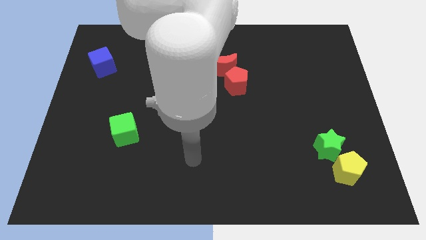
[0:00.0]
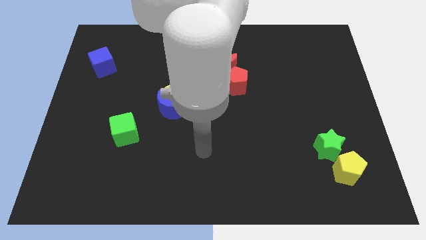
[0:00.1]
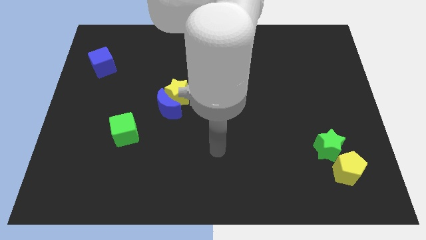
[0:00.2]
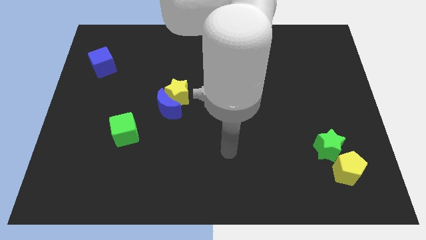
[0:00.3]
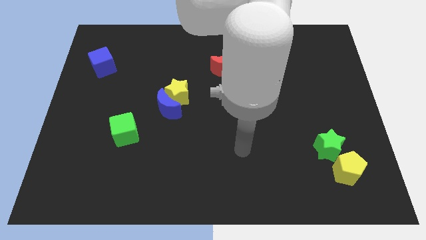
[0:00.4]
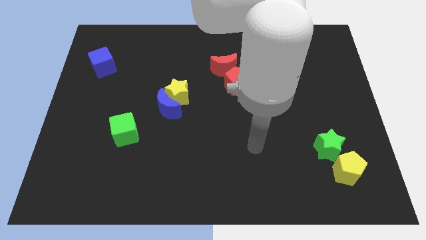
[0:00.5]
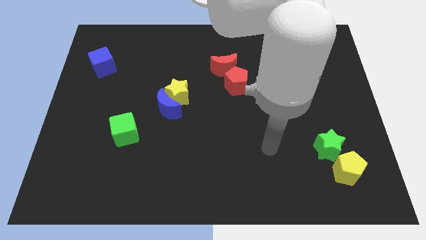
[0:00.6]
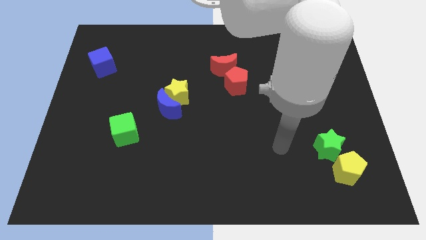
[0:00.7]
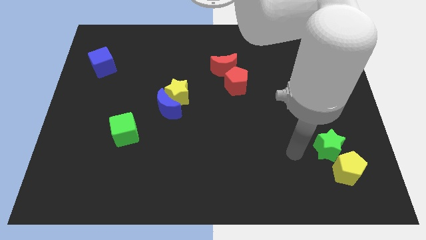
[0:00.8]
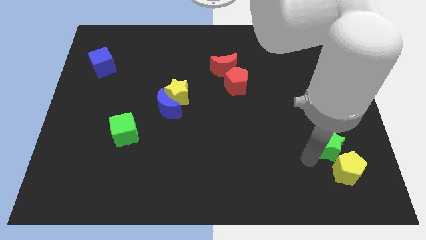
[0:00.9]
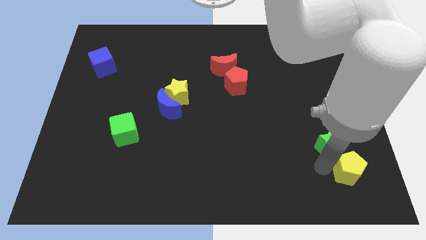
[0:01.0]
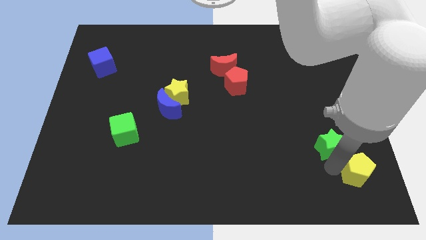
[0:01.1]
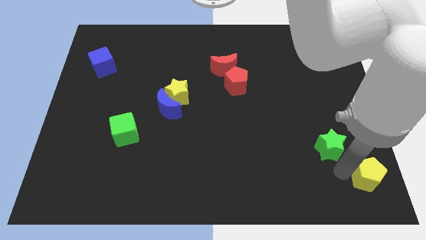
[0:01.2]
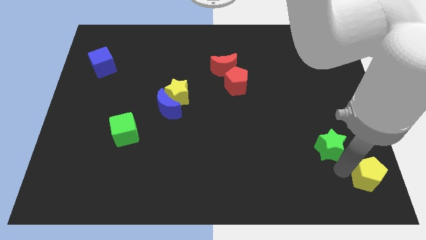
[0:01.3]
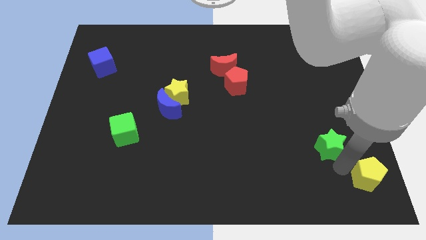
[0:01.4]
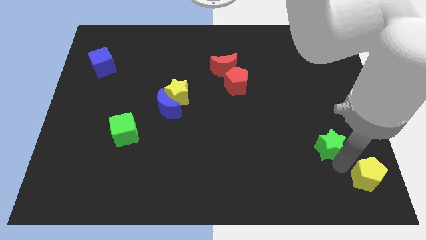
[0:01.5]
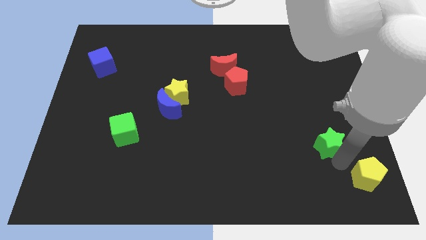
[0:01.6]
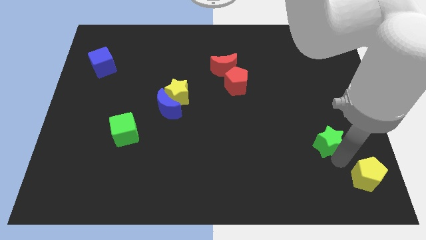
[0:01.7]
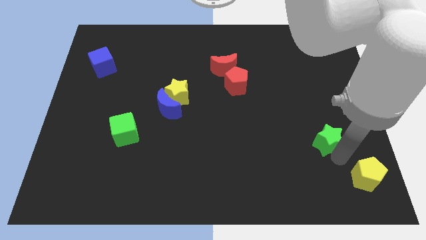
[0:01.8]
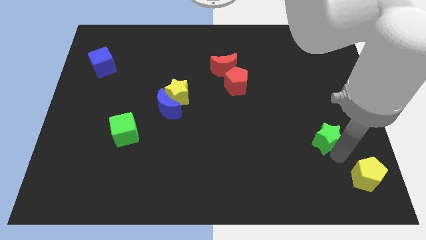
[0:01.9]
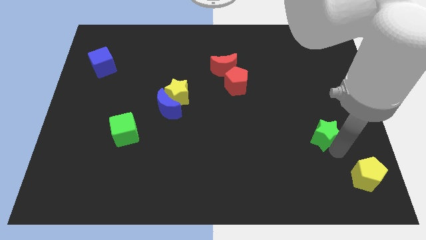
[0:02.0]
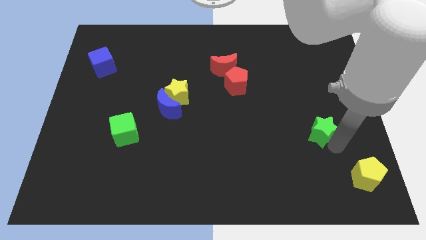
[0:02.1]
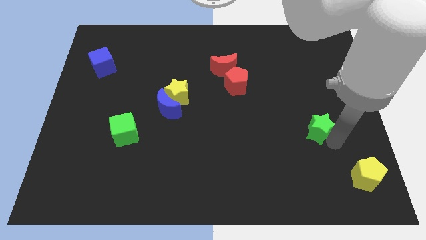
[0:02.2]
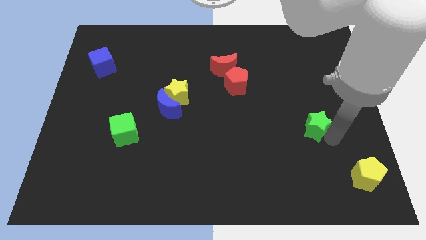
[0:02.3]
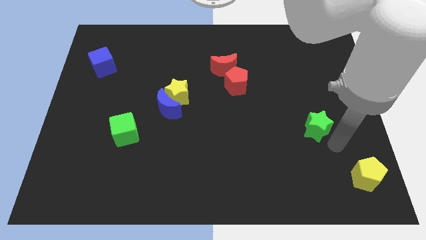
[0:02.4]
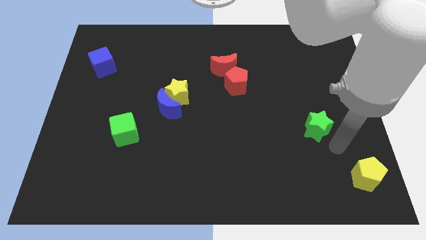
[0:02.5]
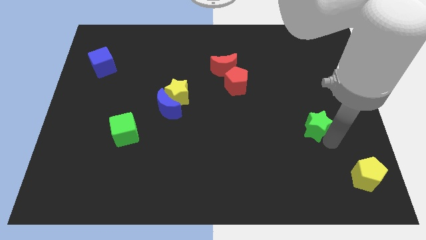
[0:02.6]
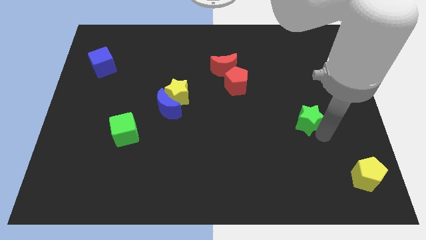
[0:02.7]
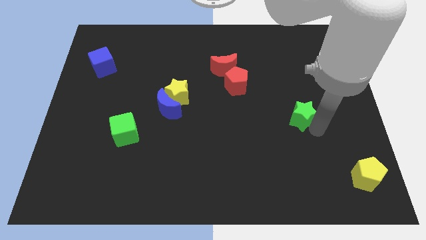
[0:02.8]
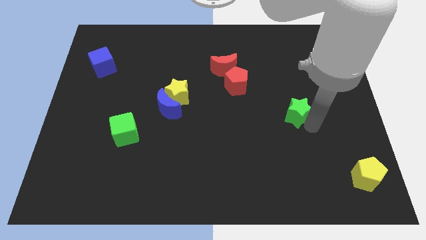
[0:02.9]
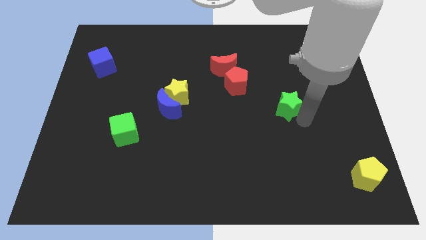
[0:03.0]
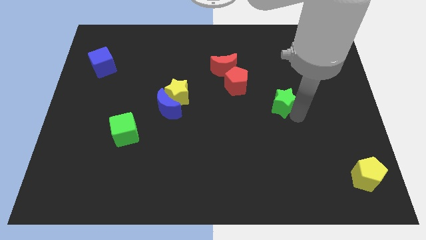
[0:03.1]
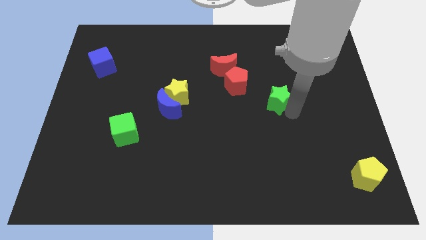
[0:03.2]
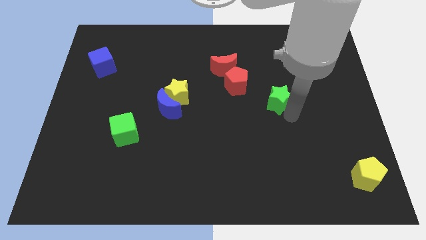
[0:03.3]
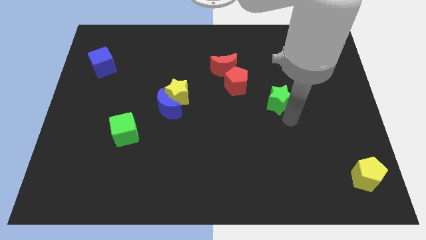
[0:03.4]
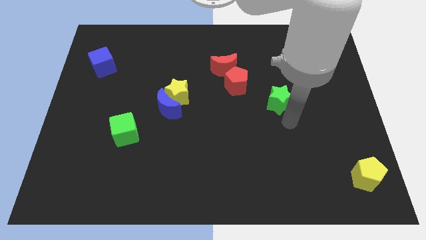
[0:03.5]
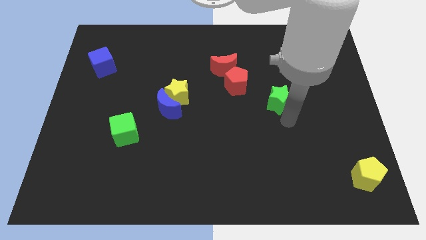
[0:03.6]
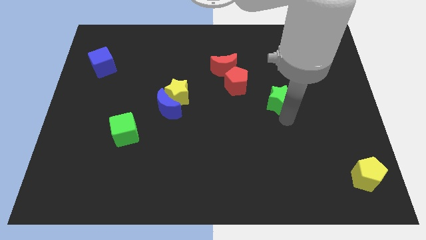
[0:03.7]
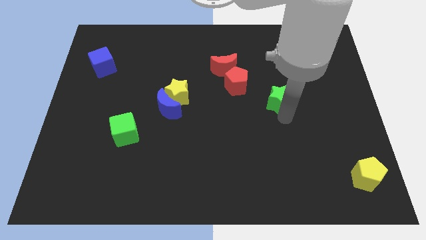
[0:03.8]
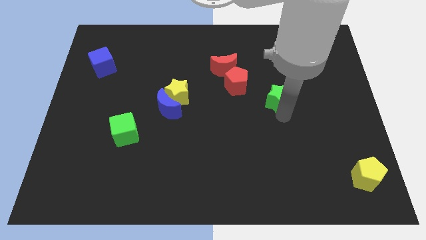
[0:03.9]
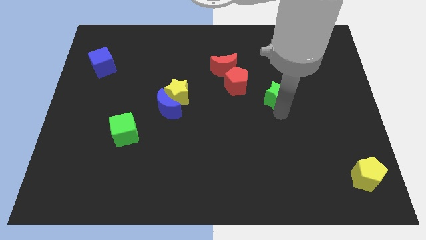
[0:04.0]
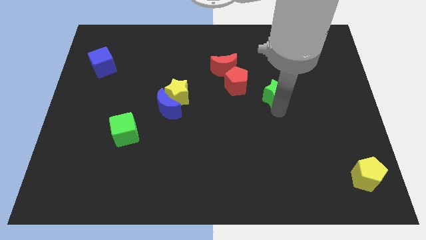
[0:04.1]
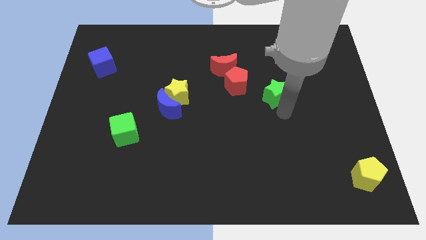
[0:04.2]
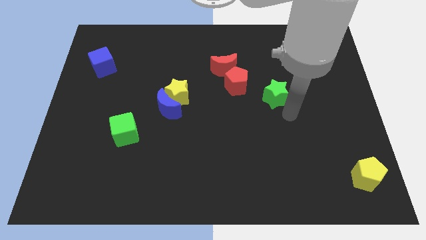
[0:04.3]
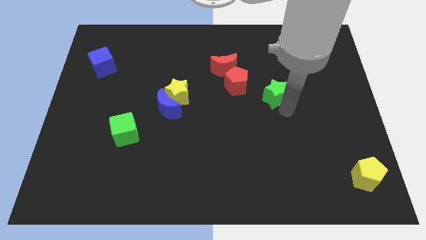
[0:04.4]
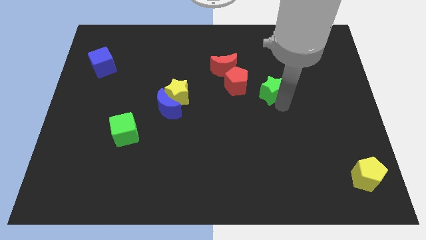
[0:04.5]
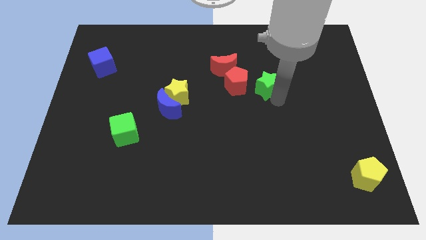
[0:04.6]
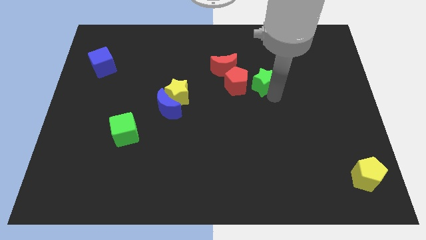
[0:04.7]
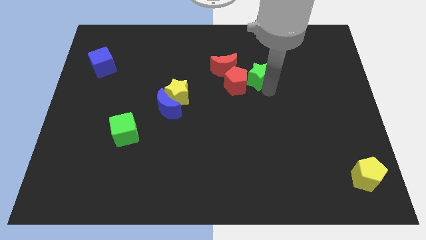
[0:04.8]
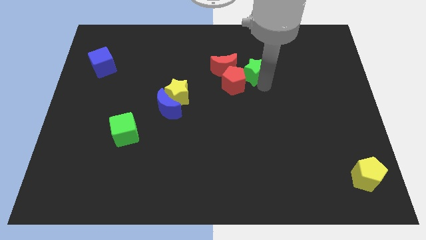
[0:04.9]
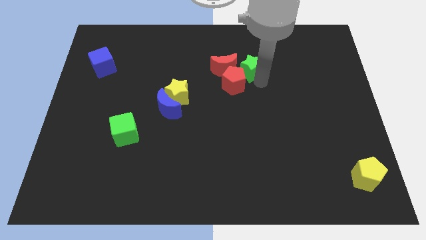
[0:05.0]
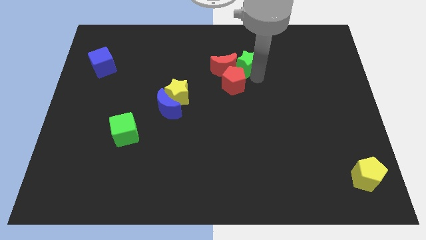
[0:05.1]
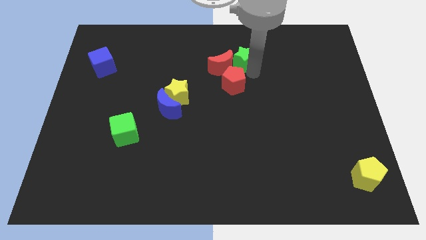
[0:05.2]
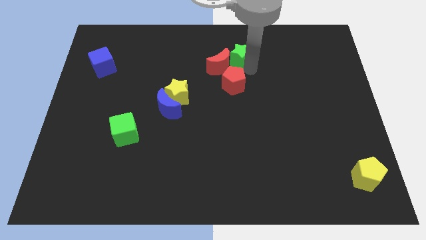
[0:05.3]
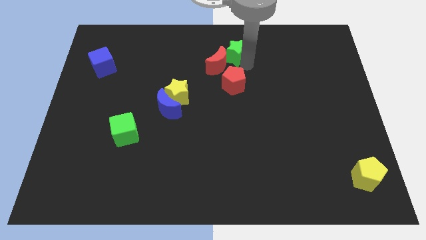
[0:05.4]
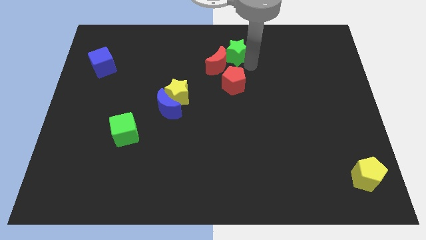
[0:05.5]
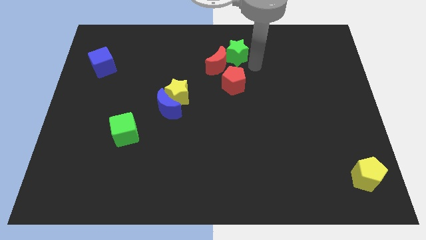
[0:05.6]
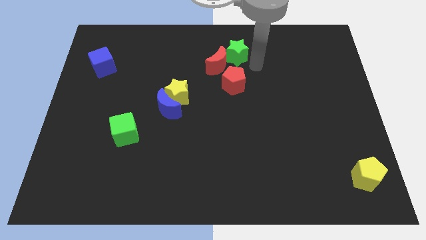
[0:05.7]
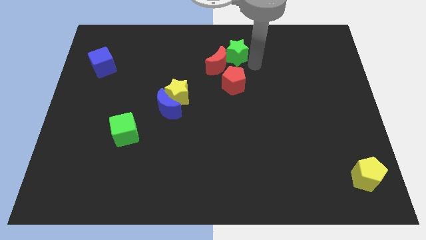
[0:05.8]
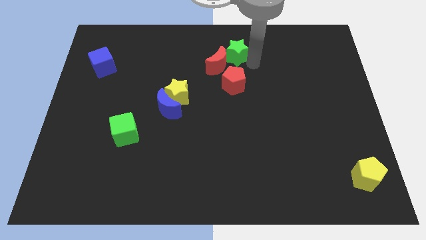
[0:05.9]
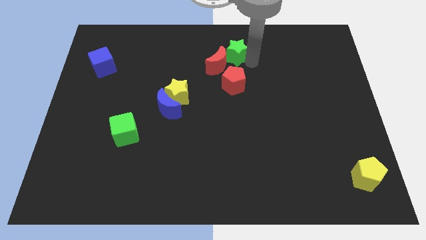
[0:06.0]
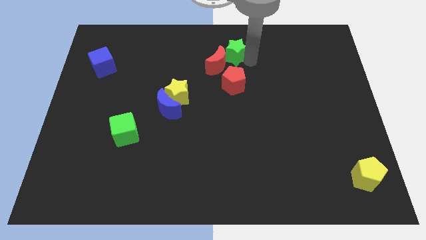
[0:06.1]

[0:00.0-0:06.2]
put the green star to the towards your base

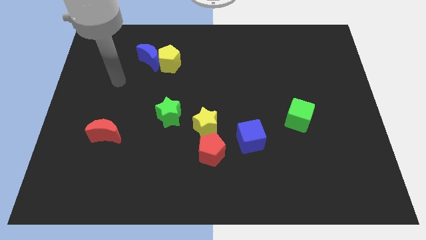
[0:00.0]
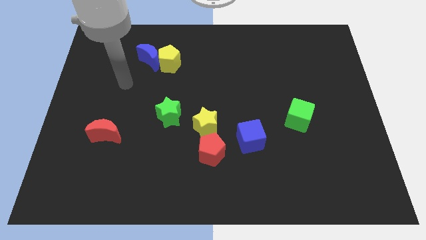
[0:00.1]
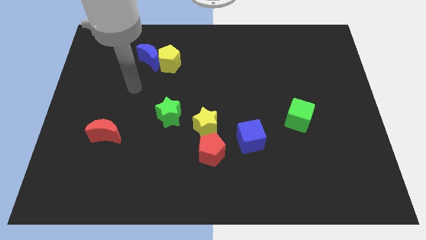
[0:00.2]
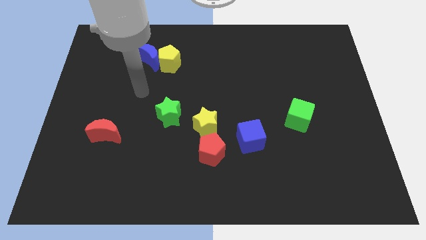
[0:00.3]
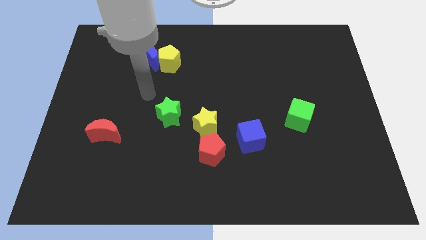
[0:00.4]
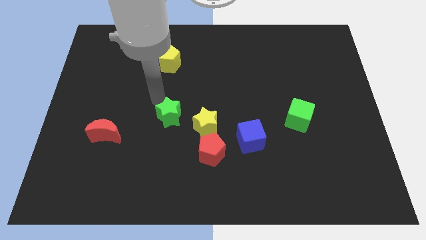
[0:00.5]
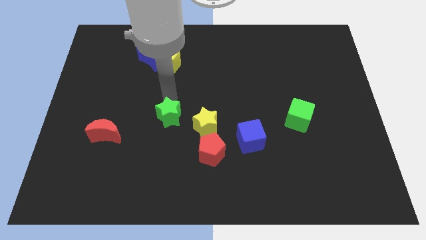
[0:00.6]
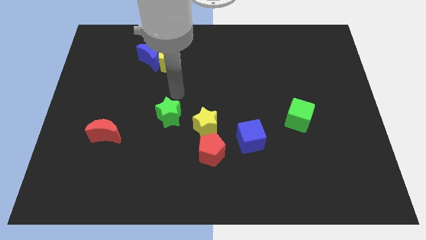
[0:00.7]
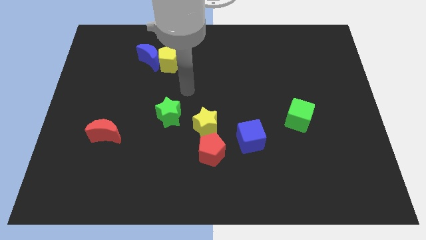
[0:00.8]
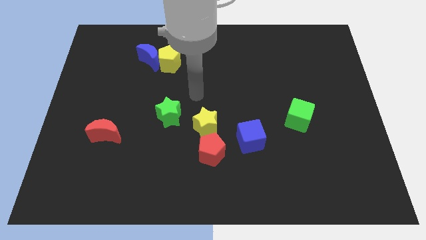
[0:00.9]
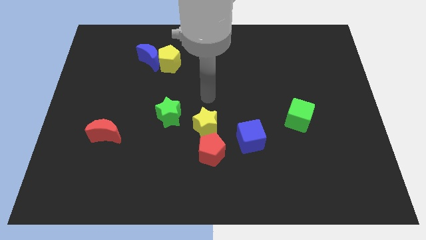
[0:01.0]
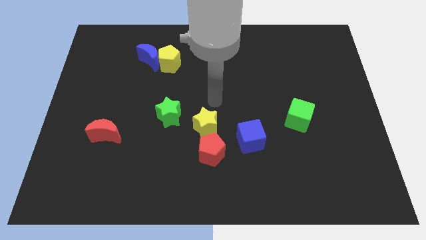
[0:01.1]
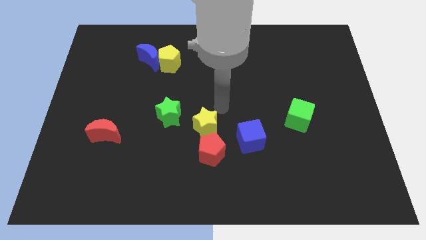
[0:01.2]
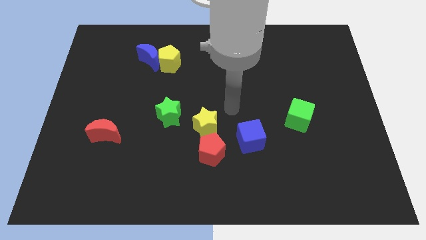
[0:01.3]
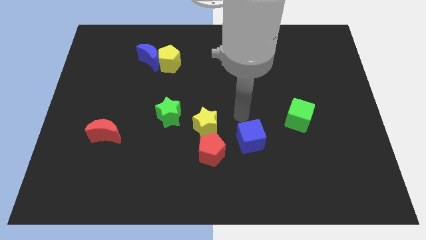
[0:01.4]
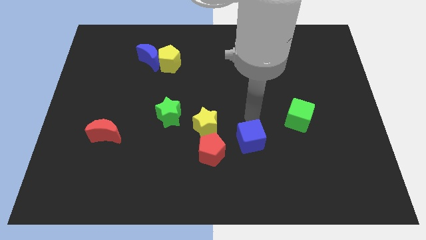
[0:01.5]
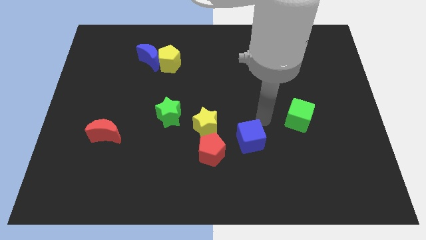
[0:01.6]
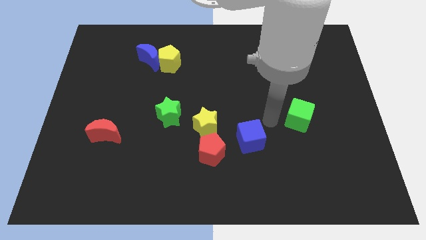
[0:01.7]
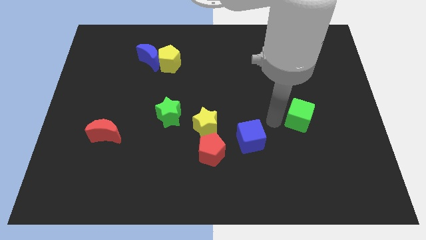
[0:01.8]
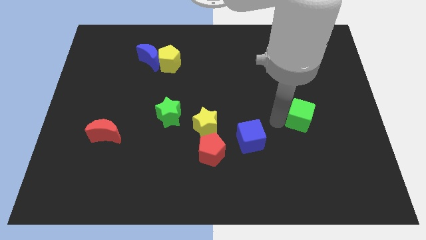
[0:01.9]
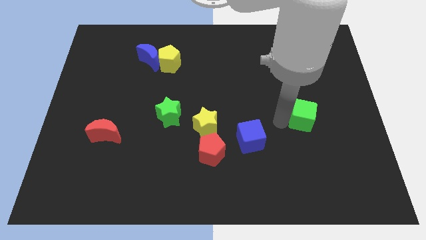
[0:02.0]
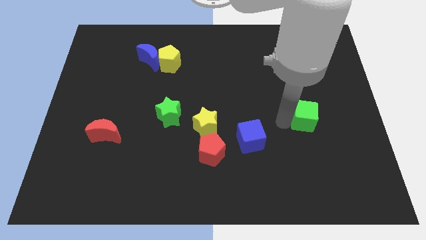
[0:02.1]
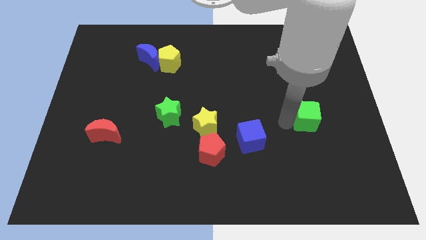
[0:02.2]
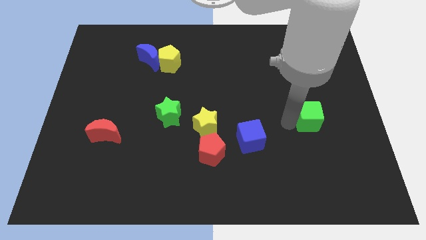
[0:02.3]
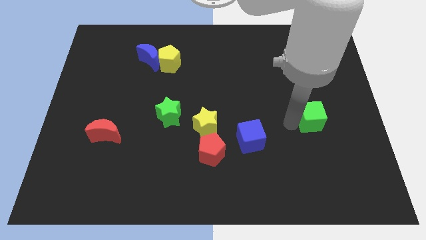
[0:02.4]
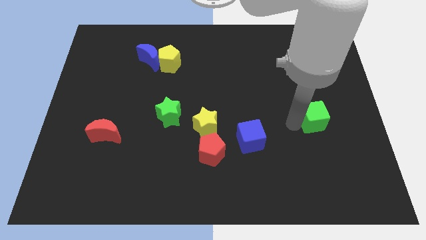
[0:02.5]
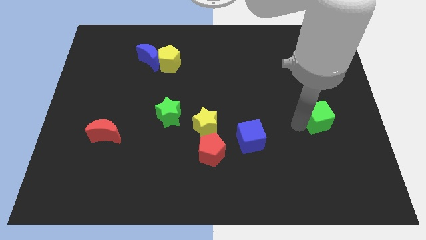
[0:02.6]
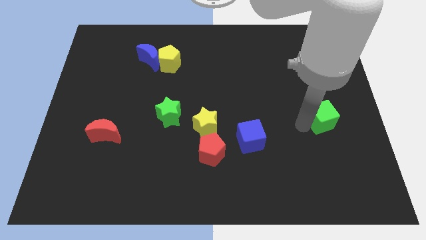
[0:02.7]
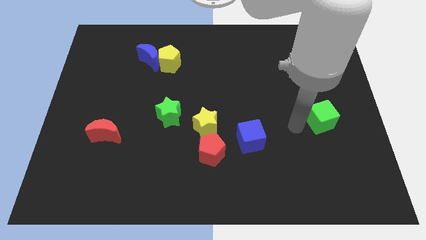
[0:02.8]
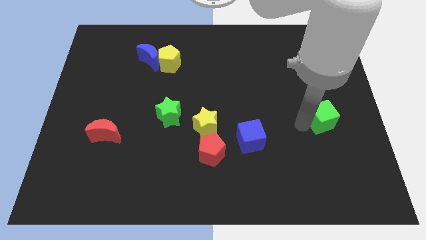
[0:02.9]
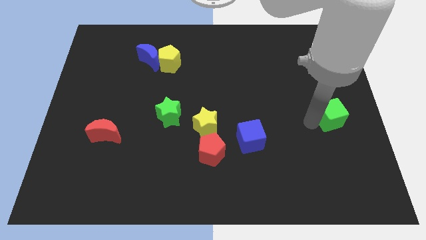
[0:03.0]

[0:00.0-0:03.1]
slide the green cube to the right side of the board
